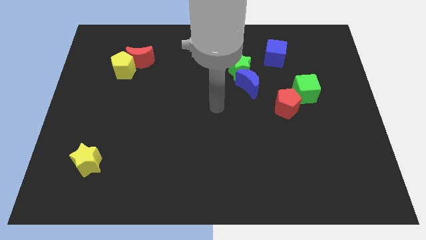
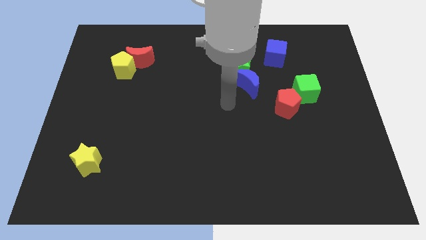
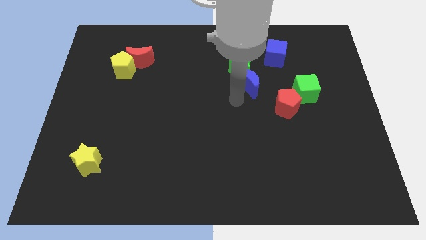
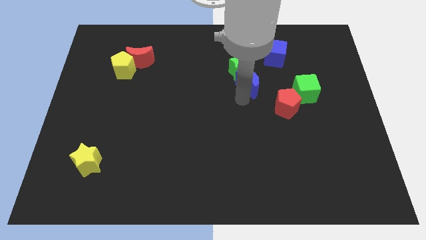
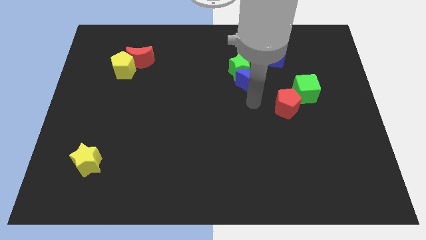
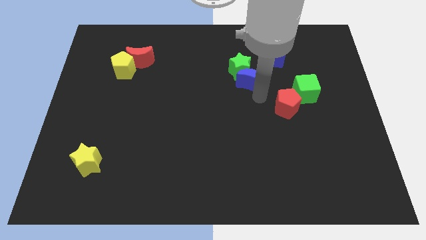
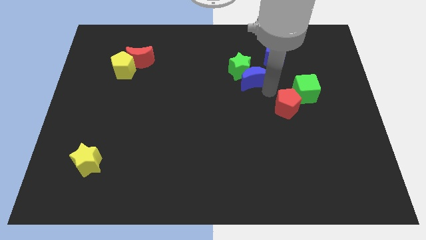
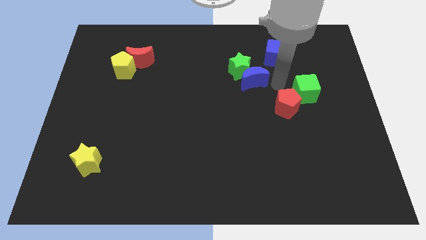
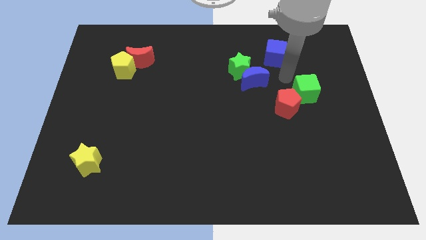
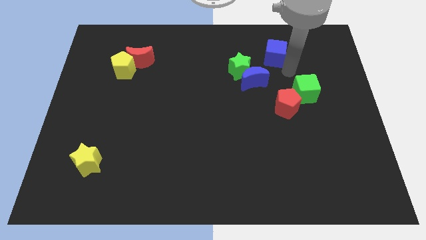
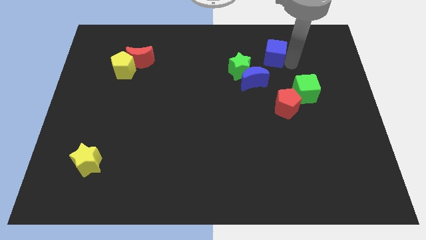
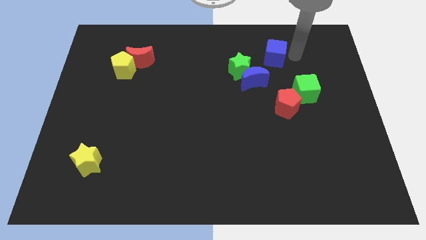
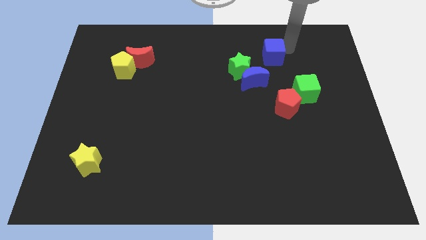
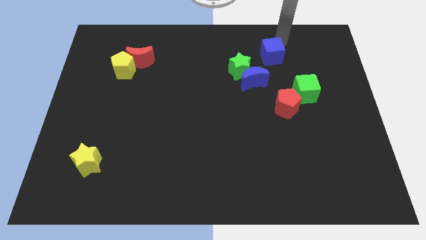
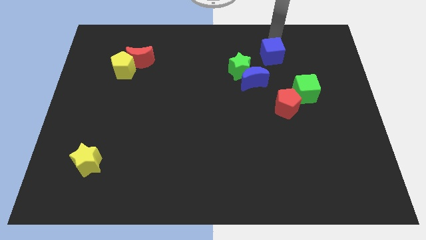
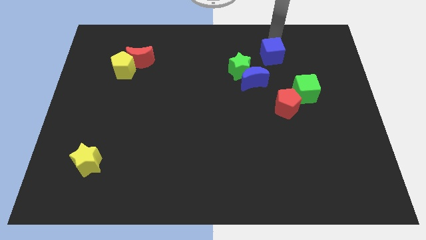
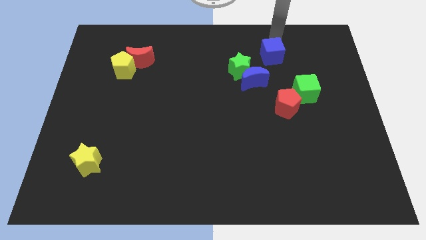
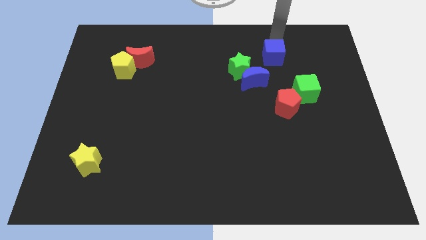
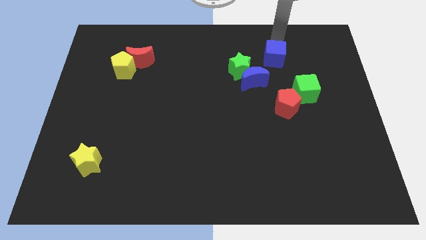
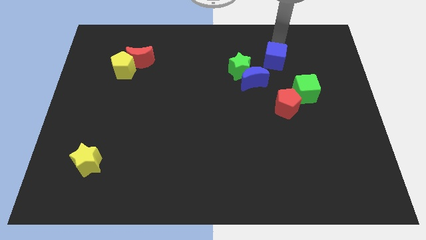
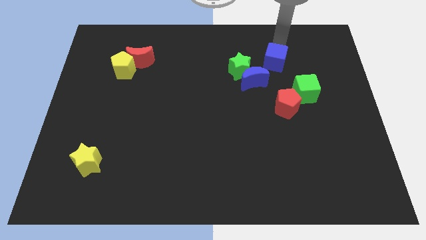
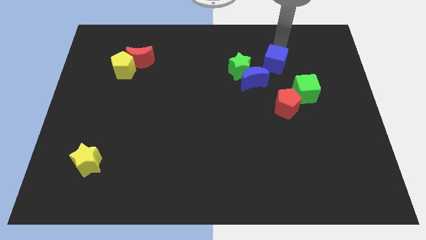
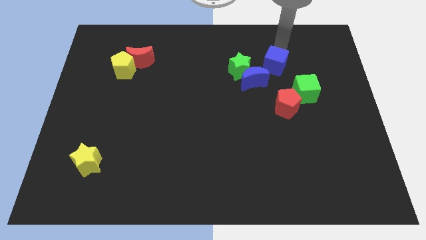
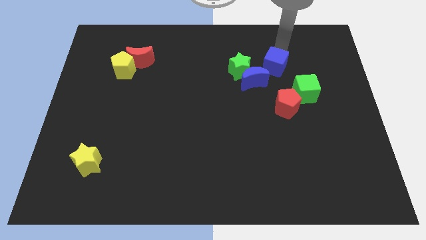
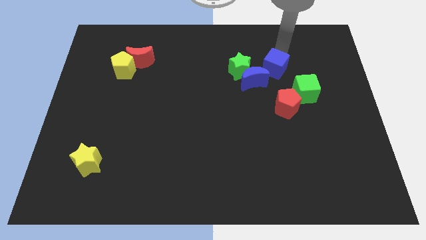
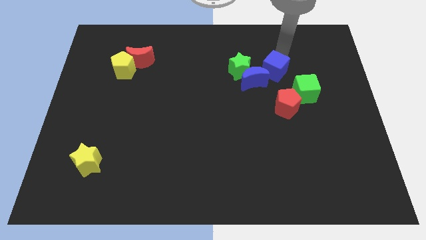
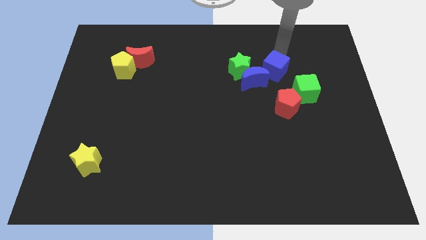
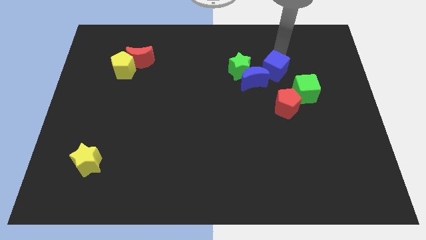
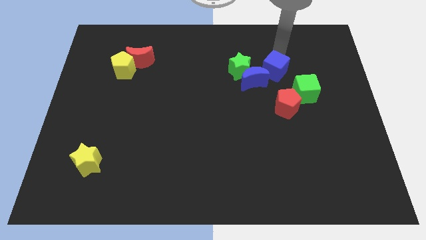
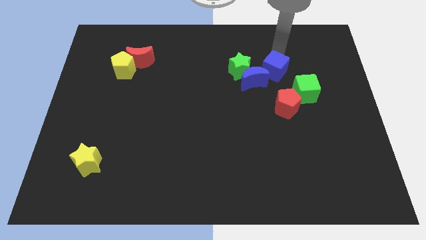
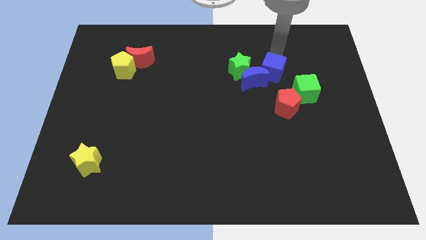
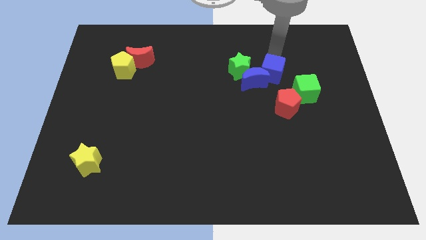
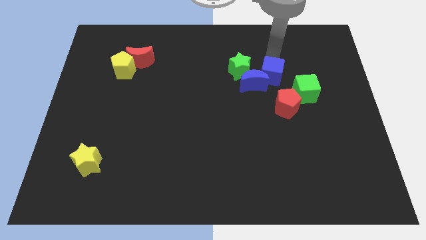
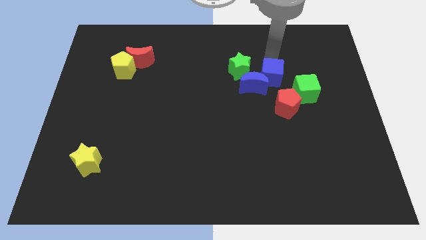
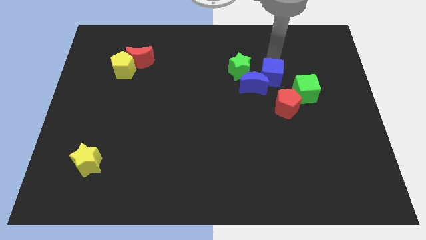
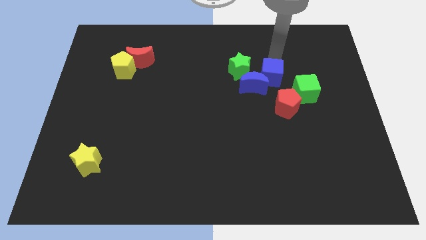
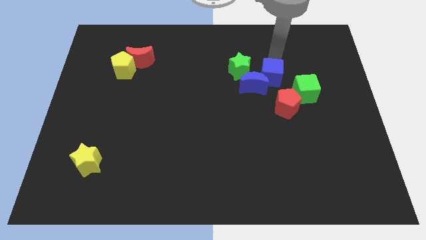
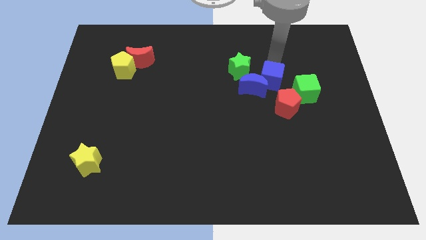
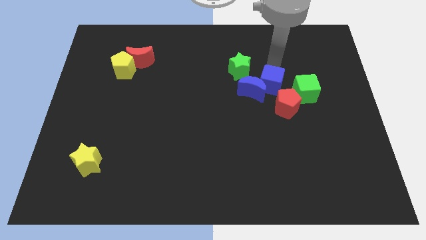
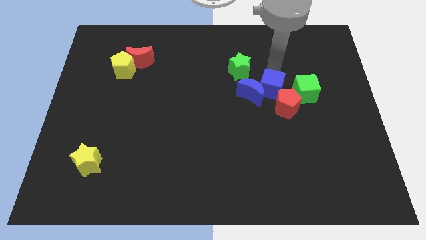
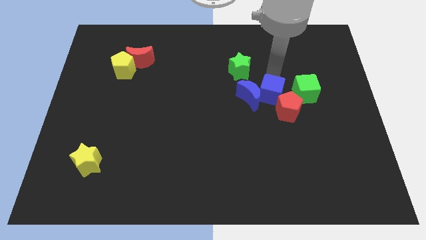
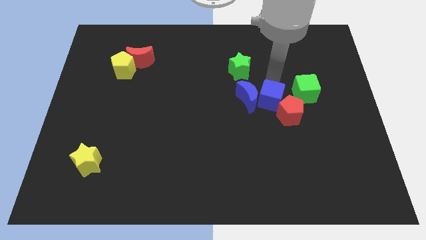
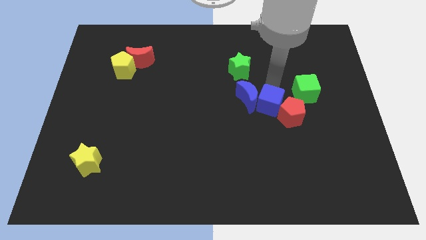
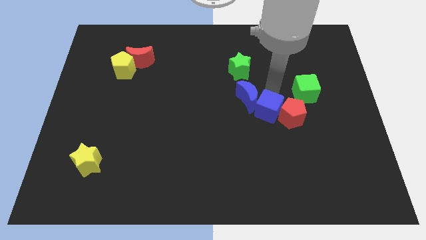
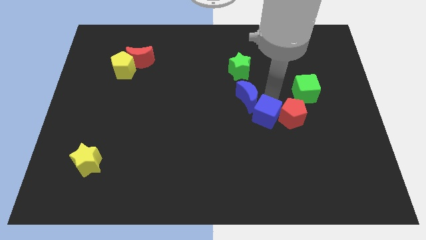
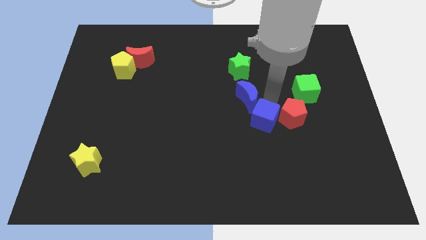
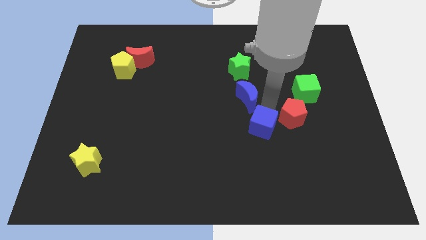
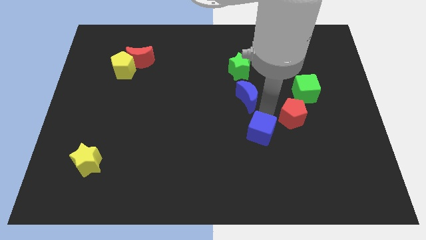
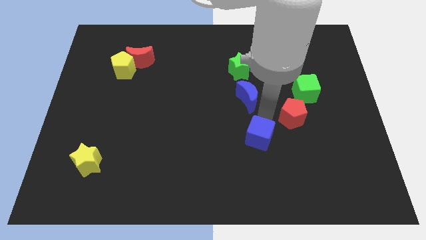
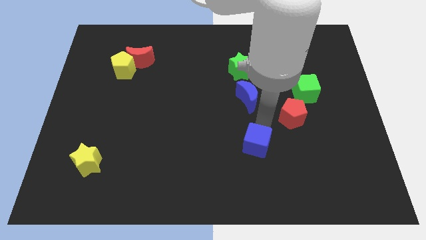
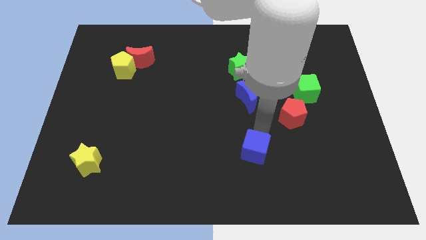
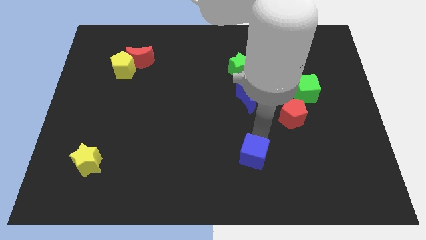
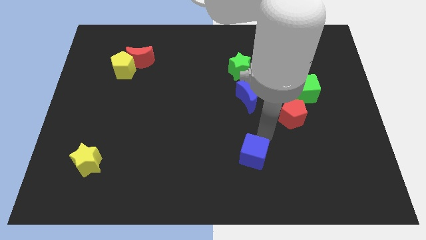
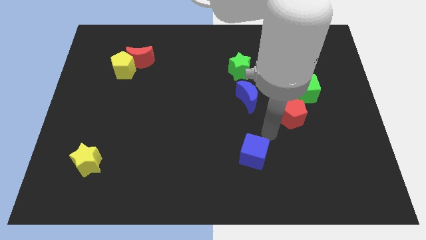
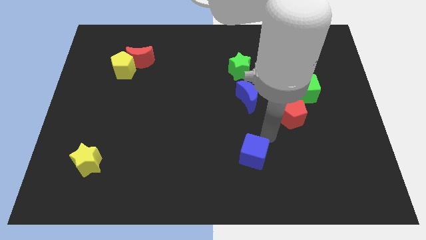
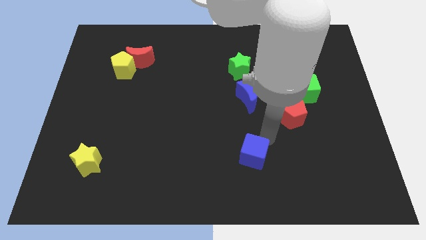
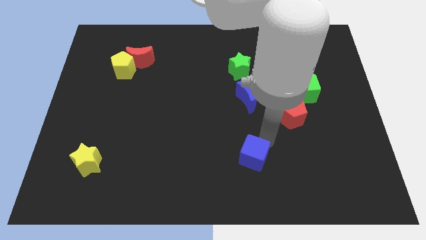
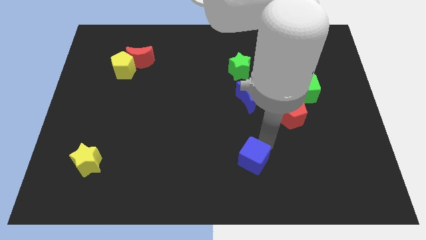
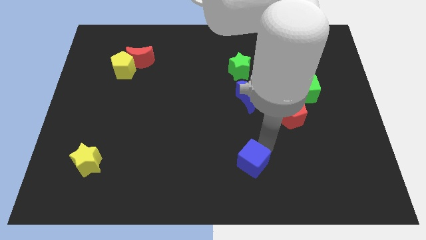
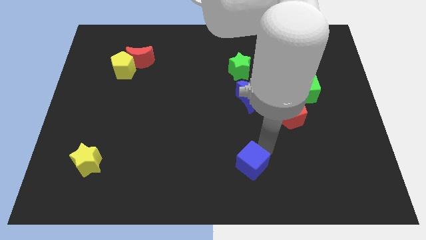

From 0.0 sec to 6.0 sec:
push the blue cube to the bottom
